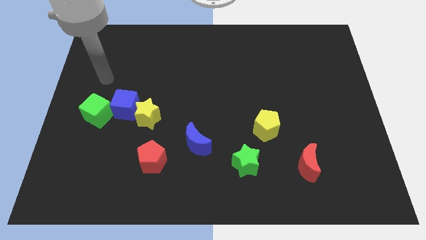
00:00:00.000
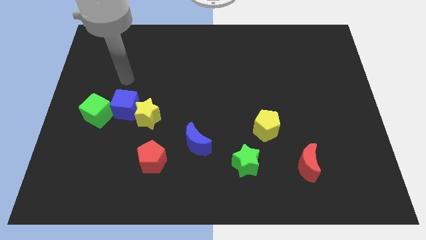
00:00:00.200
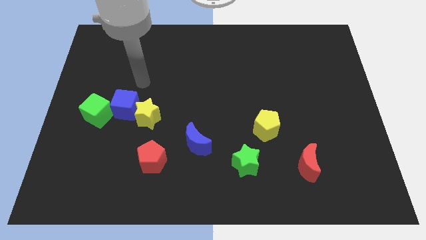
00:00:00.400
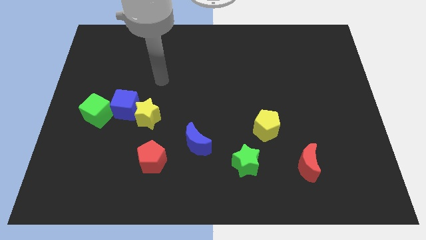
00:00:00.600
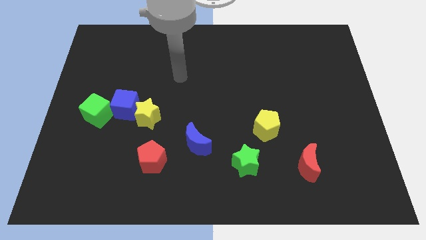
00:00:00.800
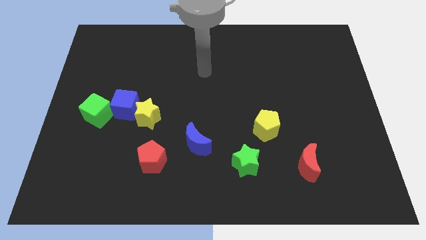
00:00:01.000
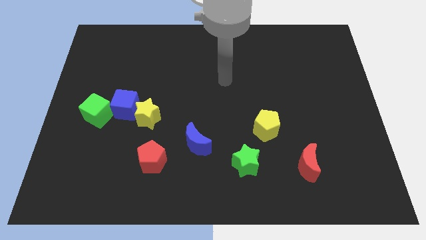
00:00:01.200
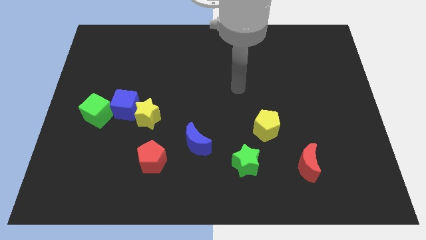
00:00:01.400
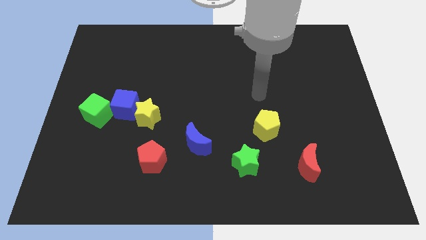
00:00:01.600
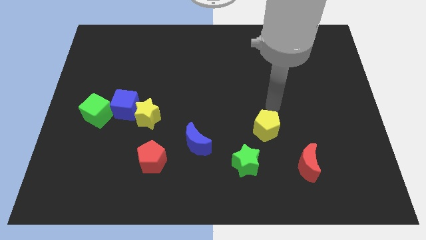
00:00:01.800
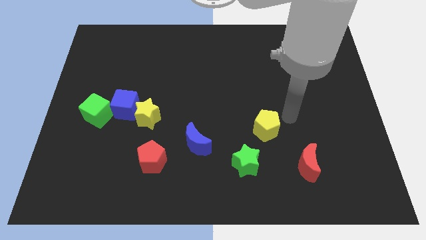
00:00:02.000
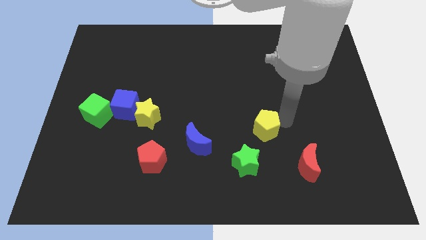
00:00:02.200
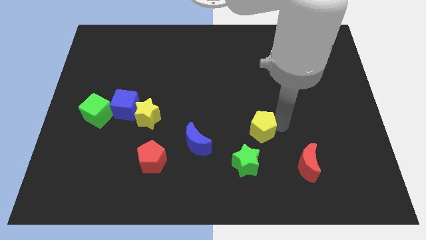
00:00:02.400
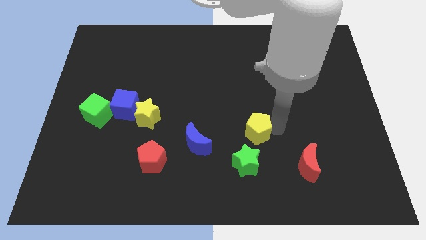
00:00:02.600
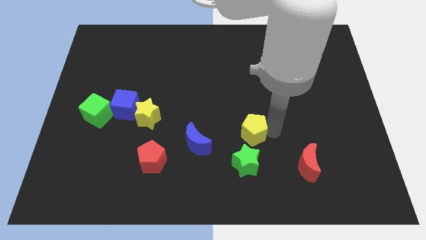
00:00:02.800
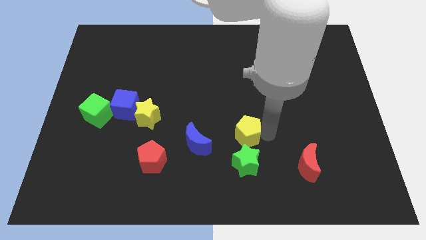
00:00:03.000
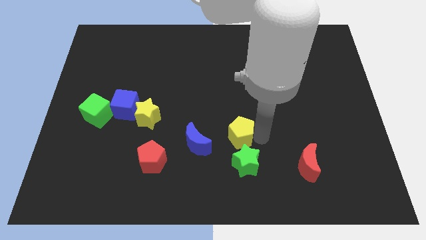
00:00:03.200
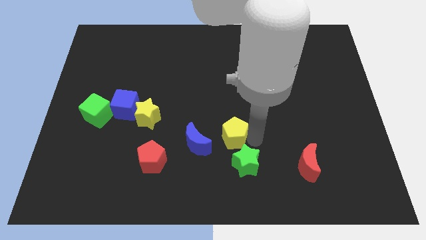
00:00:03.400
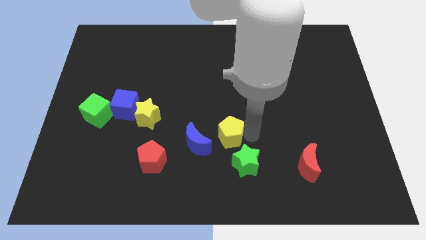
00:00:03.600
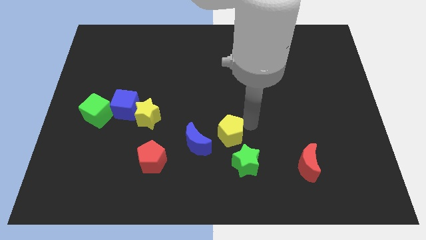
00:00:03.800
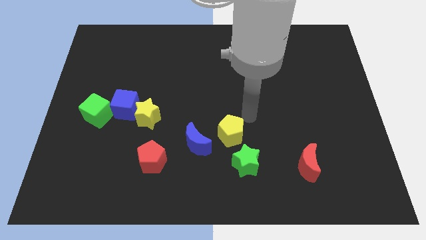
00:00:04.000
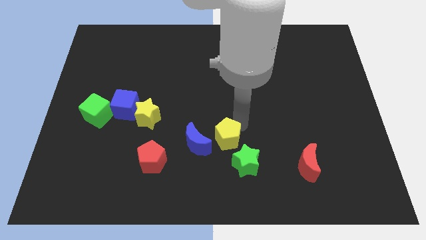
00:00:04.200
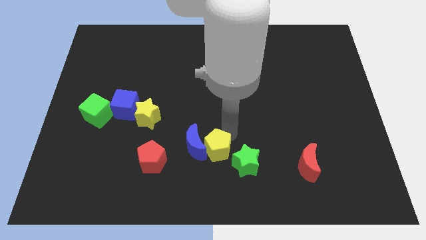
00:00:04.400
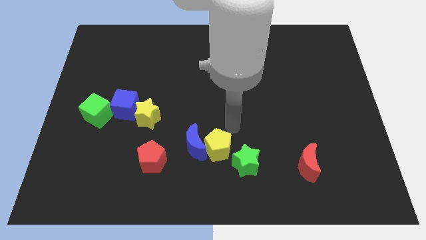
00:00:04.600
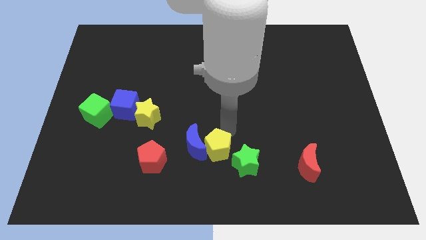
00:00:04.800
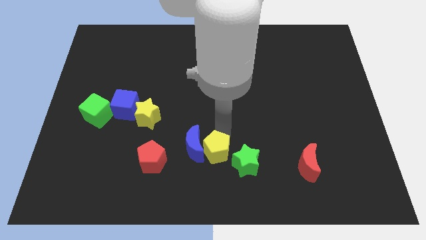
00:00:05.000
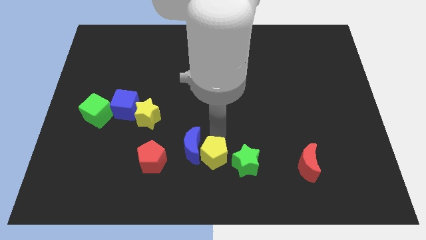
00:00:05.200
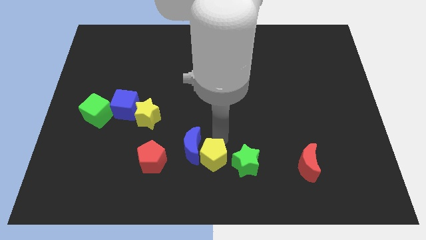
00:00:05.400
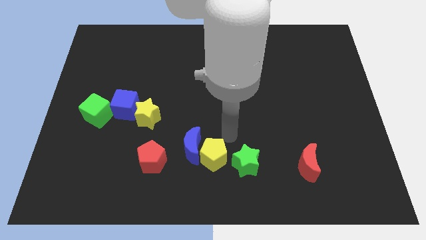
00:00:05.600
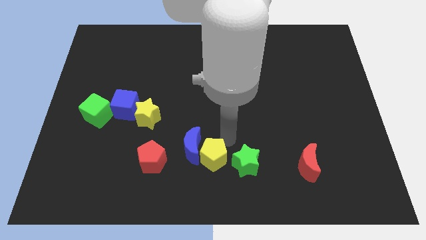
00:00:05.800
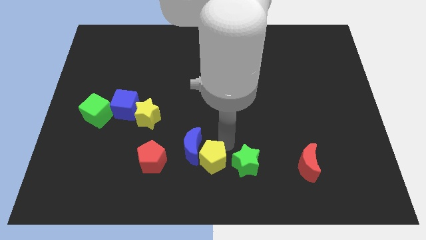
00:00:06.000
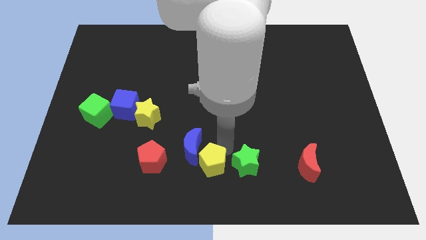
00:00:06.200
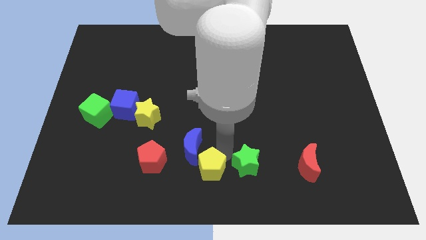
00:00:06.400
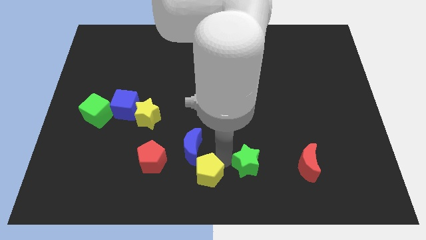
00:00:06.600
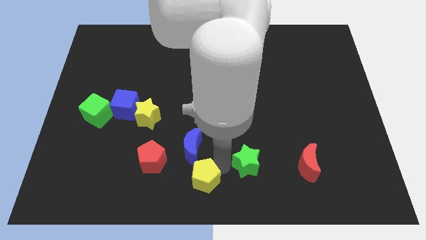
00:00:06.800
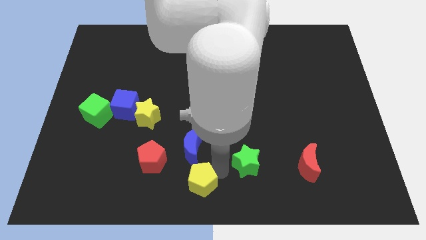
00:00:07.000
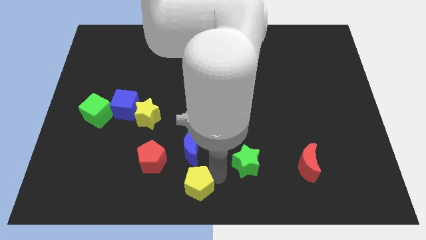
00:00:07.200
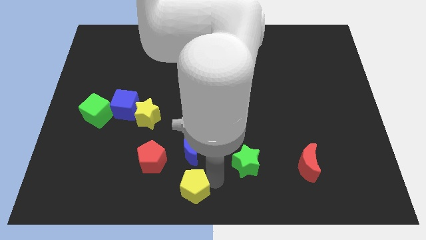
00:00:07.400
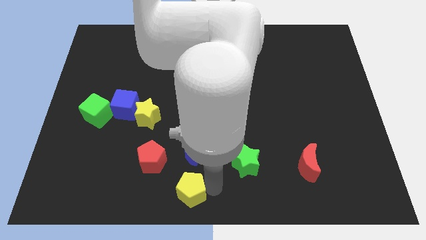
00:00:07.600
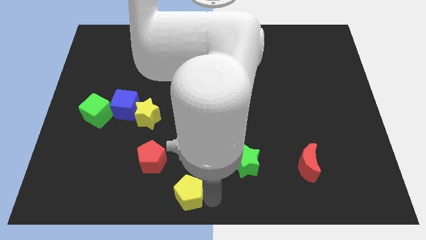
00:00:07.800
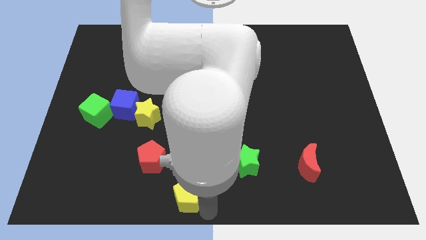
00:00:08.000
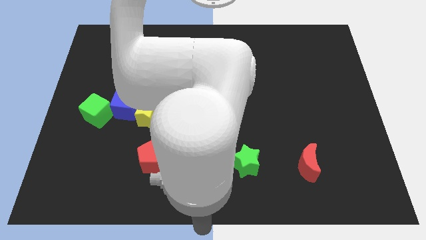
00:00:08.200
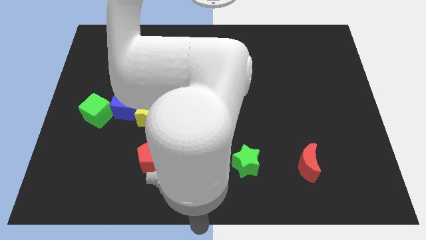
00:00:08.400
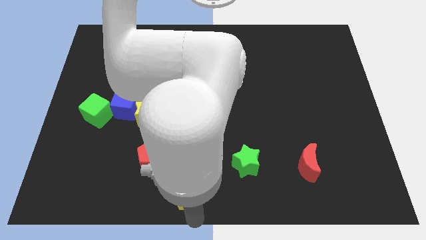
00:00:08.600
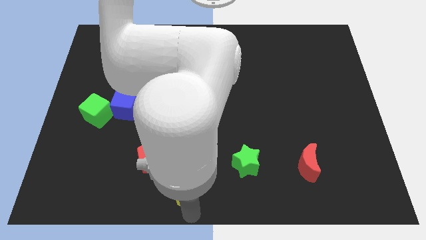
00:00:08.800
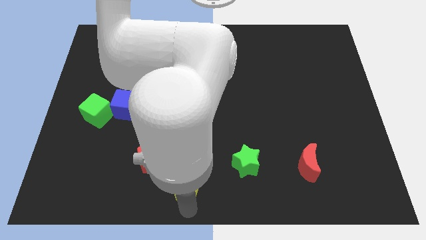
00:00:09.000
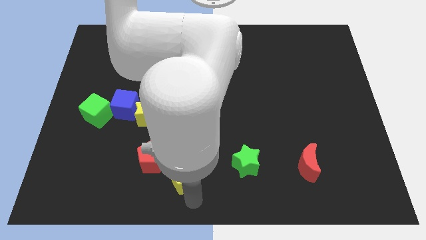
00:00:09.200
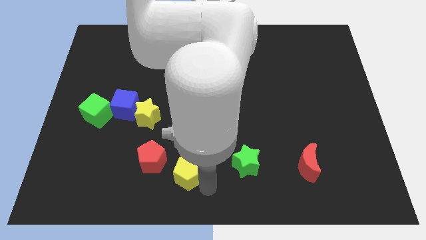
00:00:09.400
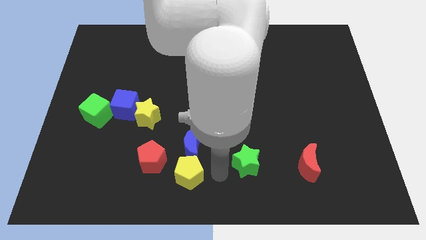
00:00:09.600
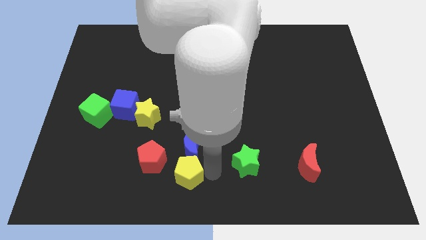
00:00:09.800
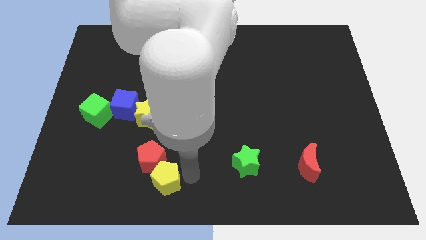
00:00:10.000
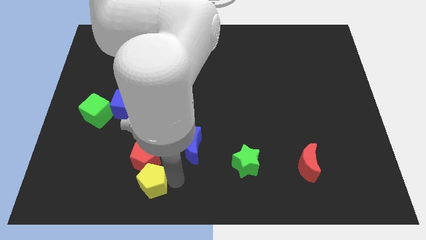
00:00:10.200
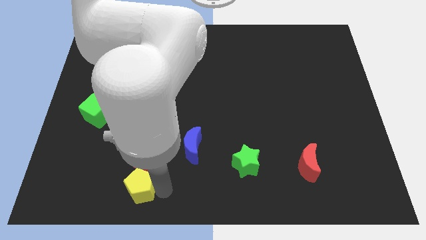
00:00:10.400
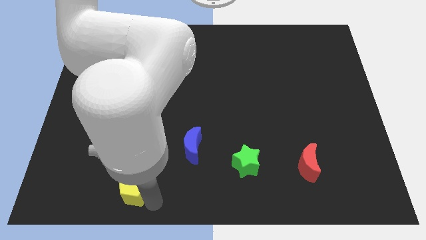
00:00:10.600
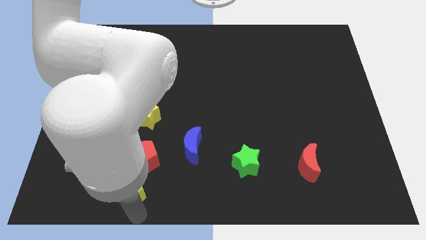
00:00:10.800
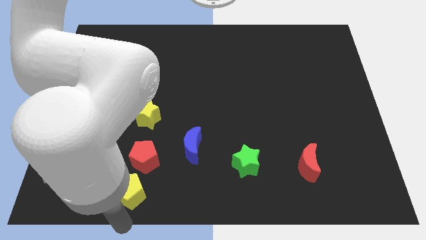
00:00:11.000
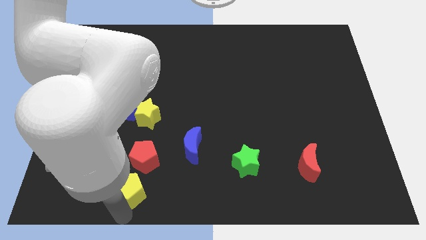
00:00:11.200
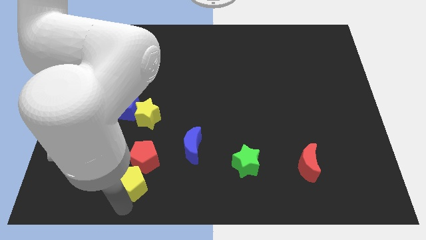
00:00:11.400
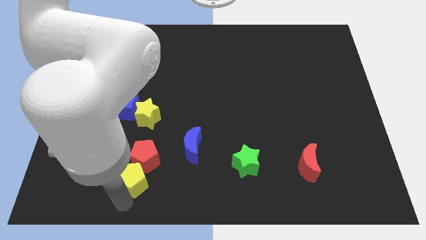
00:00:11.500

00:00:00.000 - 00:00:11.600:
slide the yellow pentagon to the bottom side of the yellow star

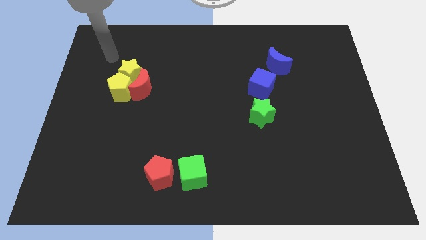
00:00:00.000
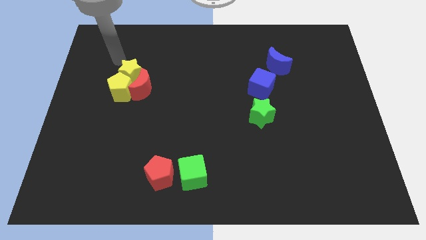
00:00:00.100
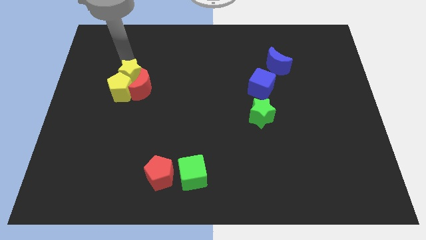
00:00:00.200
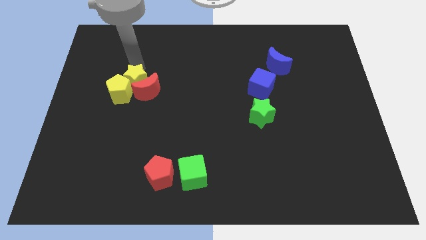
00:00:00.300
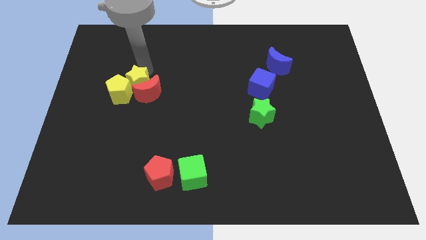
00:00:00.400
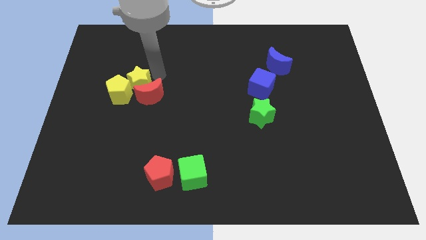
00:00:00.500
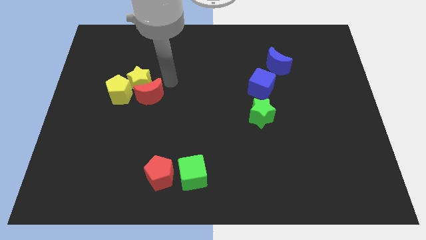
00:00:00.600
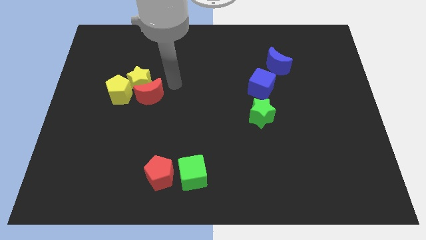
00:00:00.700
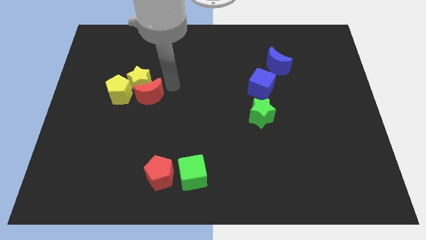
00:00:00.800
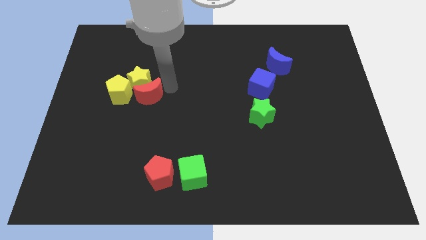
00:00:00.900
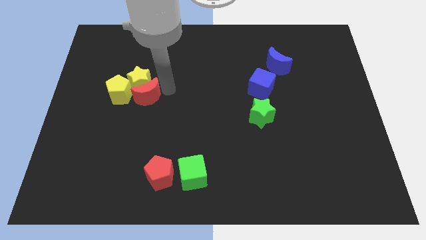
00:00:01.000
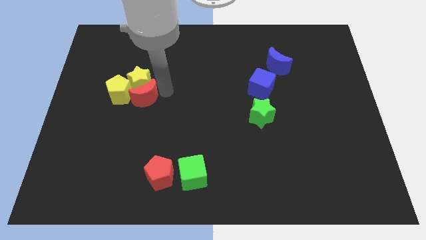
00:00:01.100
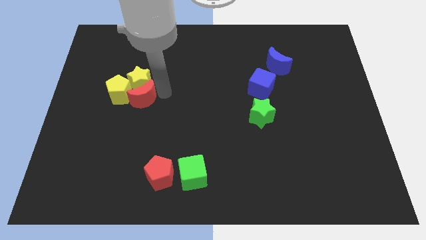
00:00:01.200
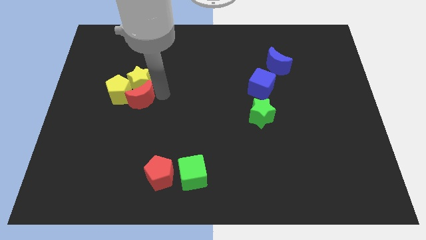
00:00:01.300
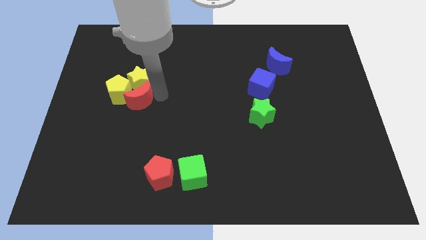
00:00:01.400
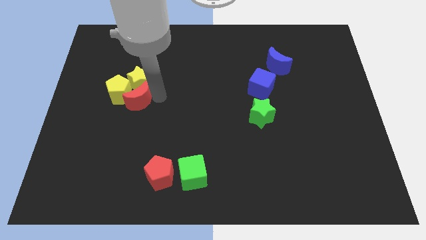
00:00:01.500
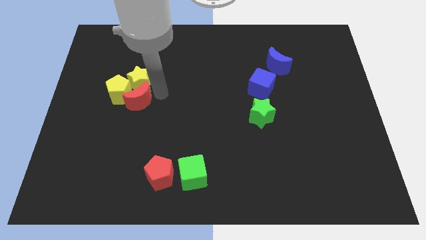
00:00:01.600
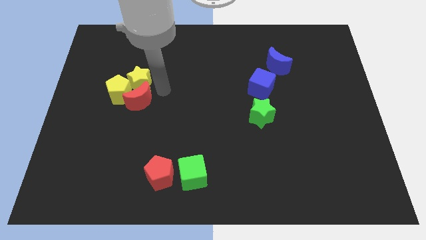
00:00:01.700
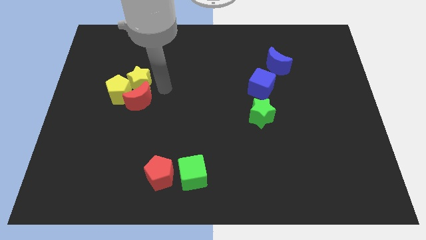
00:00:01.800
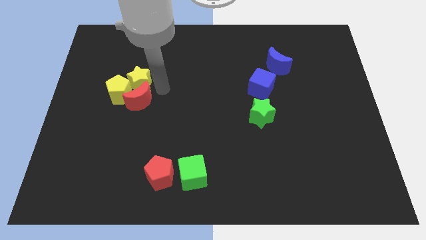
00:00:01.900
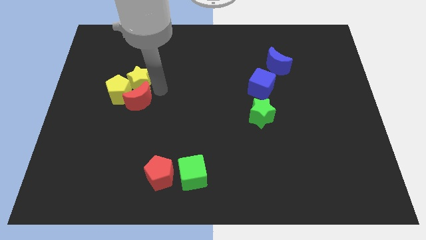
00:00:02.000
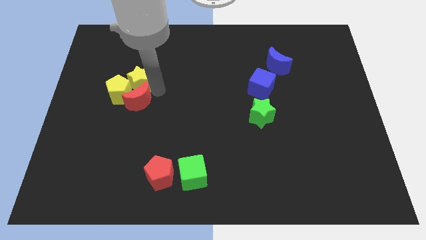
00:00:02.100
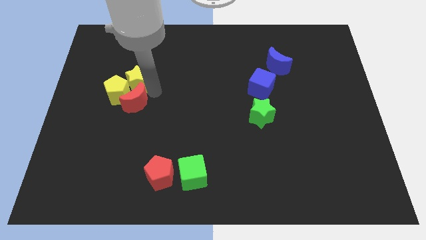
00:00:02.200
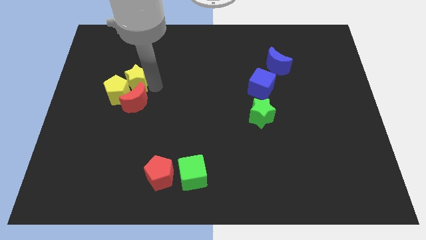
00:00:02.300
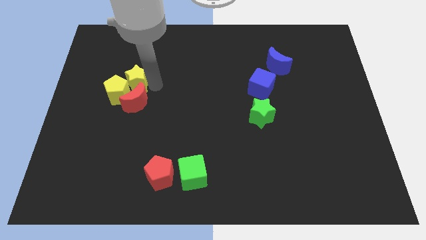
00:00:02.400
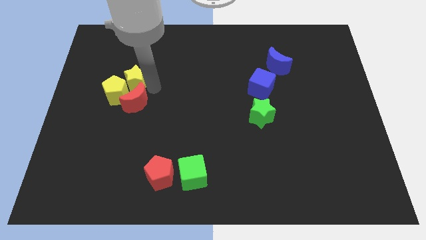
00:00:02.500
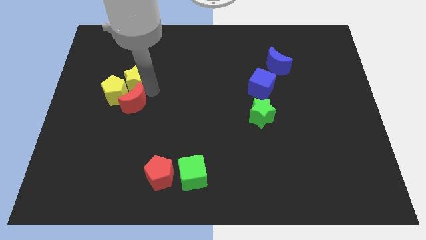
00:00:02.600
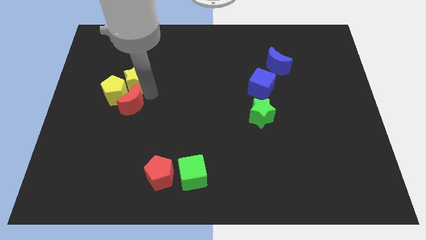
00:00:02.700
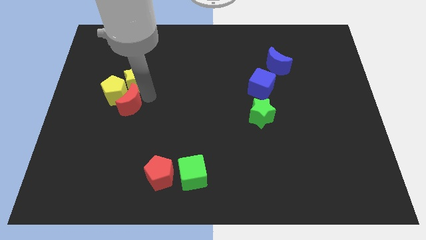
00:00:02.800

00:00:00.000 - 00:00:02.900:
slide the red moon to the bottom side of the yellow pentagon
